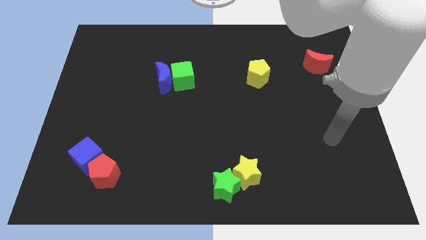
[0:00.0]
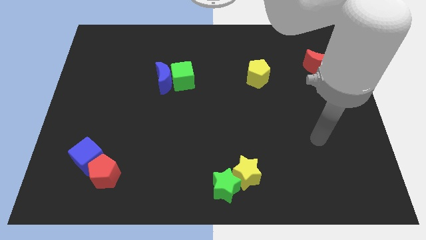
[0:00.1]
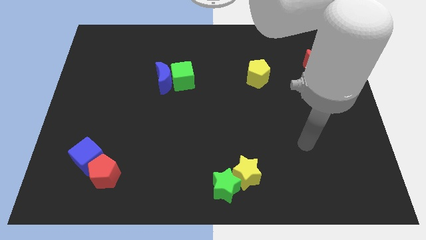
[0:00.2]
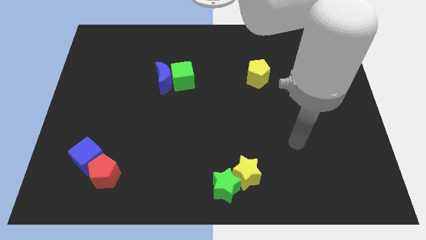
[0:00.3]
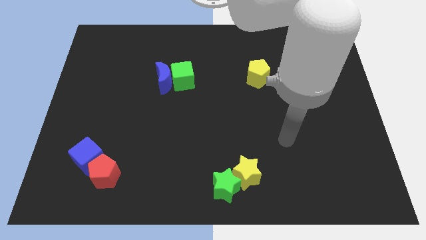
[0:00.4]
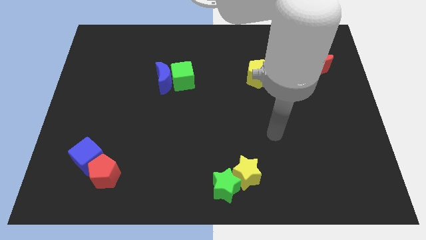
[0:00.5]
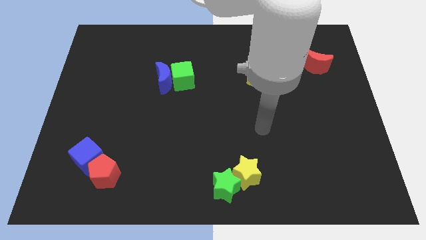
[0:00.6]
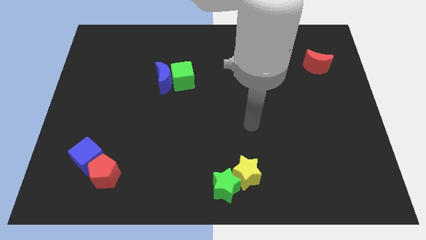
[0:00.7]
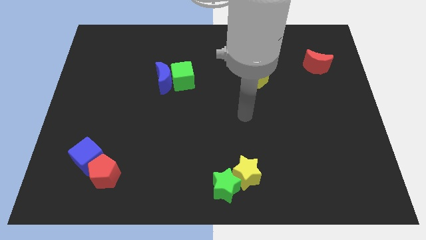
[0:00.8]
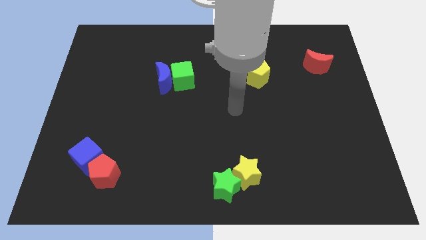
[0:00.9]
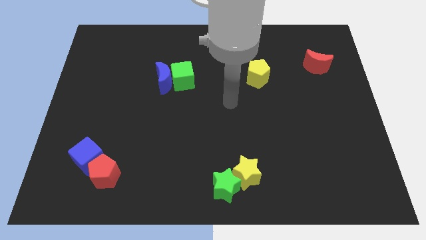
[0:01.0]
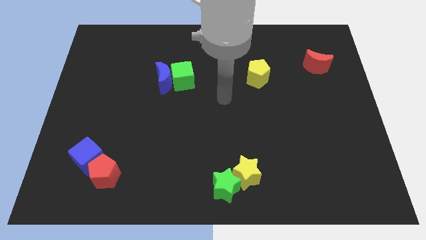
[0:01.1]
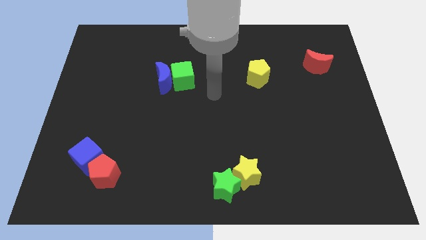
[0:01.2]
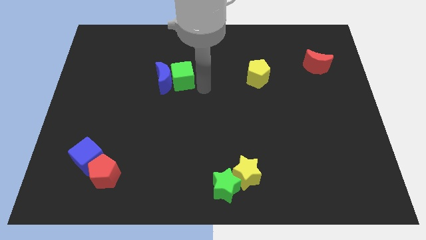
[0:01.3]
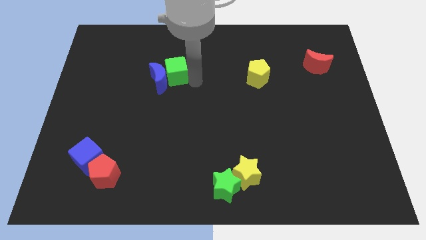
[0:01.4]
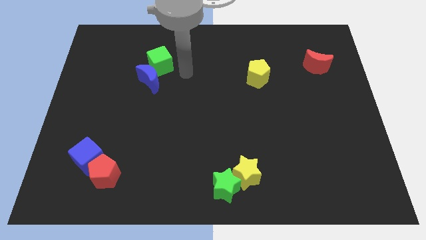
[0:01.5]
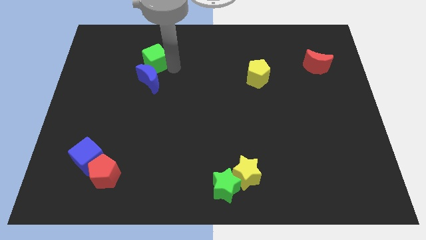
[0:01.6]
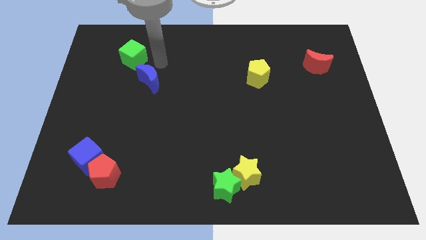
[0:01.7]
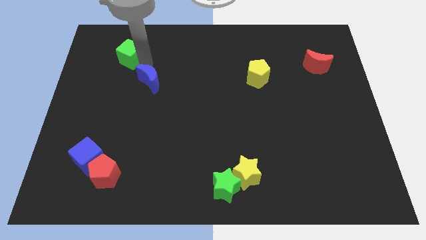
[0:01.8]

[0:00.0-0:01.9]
separate the blue moon from the green cube

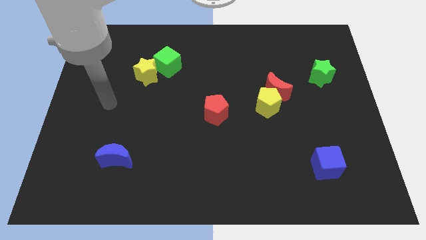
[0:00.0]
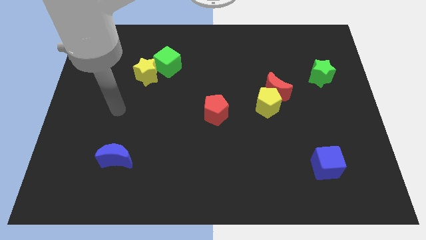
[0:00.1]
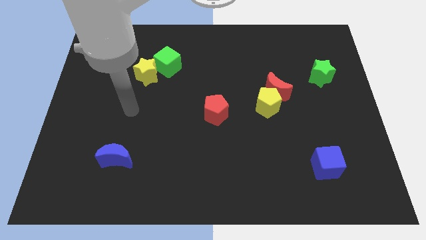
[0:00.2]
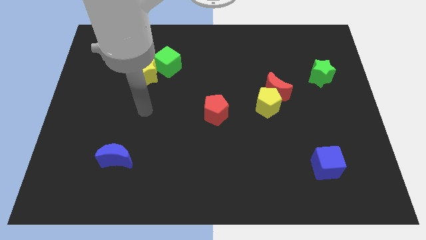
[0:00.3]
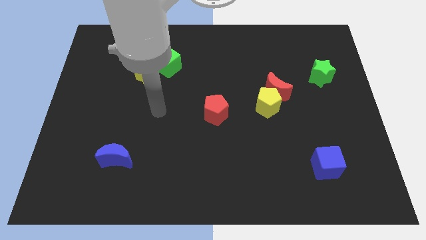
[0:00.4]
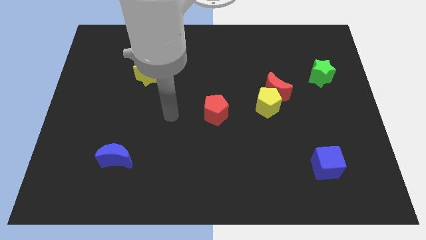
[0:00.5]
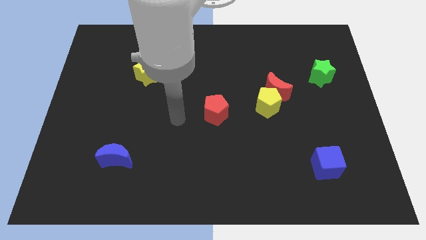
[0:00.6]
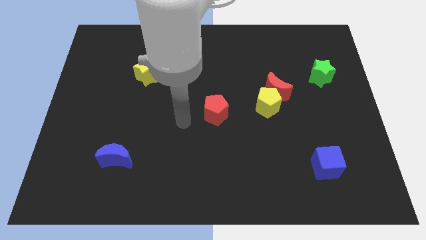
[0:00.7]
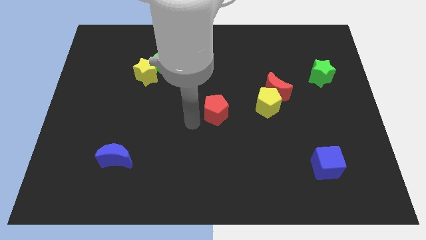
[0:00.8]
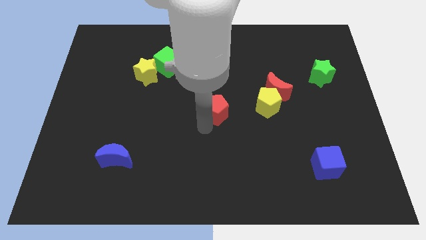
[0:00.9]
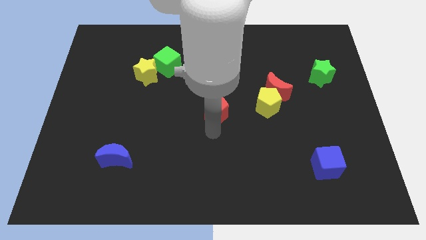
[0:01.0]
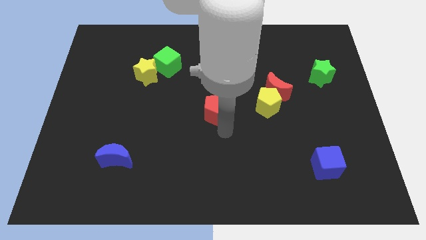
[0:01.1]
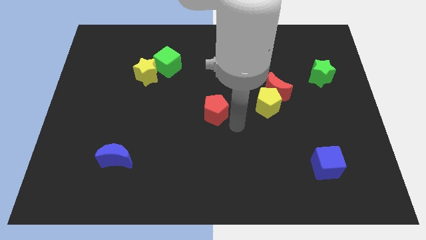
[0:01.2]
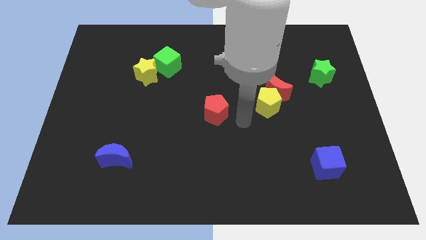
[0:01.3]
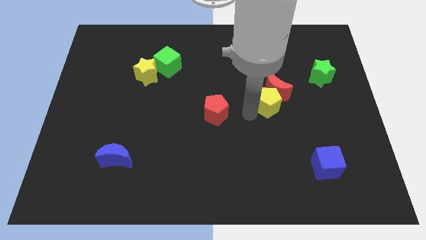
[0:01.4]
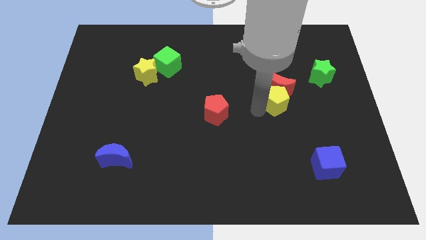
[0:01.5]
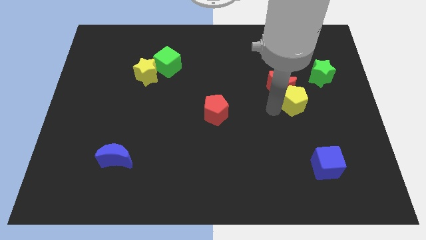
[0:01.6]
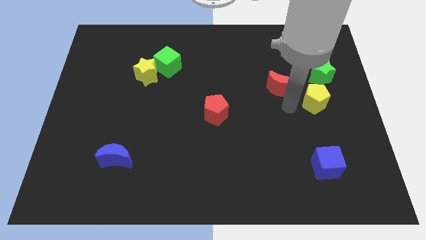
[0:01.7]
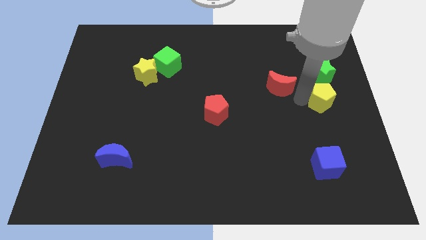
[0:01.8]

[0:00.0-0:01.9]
separate the red moon from the yellow pentagon

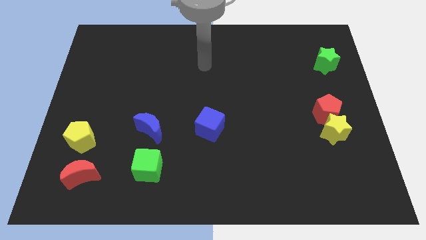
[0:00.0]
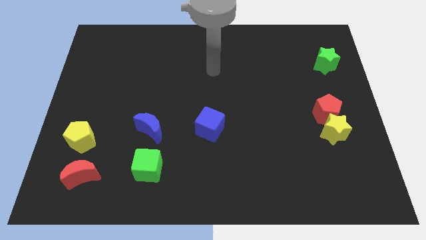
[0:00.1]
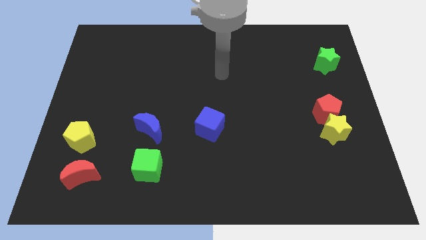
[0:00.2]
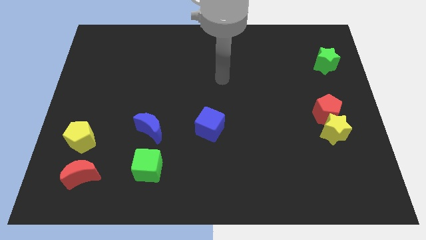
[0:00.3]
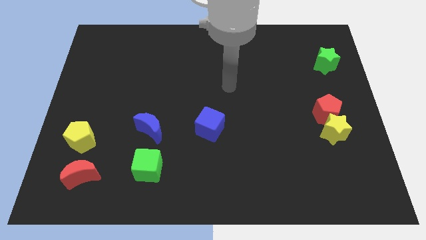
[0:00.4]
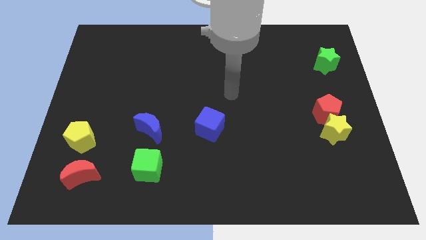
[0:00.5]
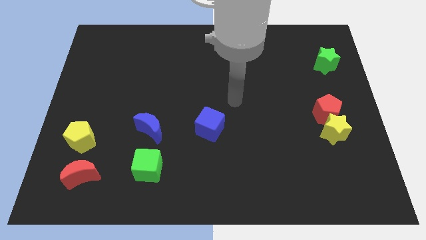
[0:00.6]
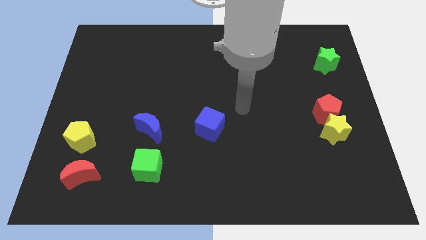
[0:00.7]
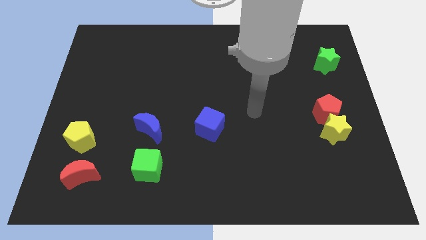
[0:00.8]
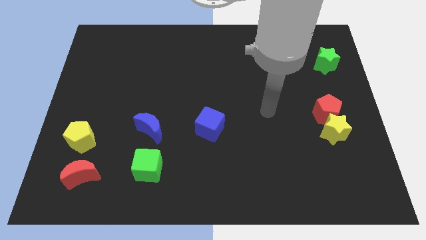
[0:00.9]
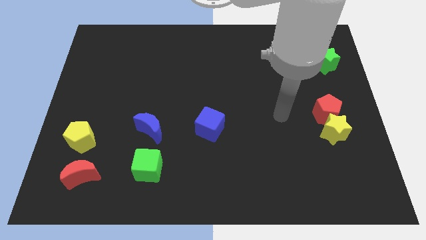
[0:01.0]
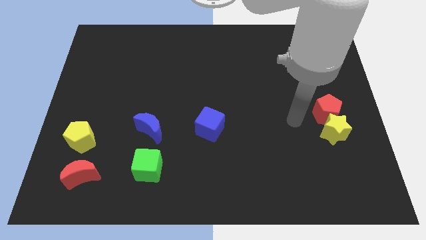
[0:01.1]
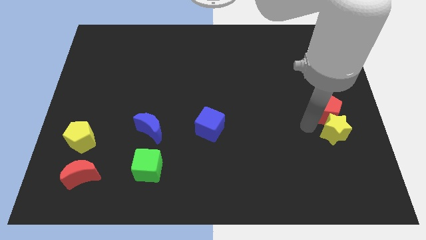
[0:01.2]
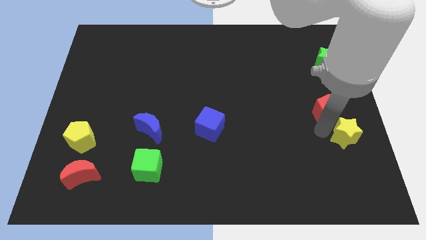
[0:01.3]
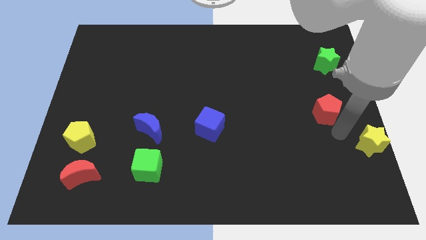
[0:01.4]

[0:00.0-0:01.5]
pull the red pentagon apart from the yellow star

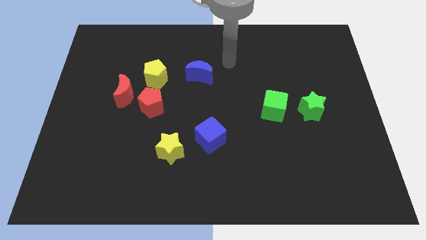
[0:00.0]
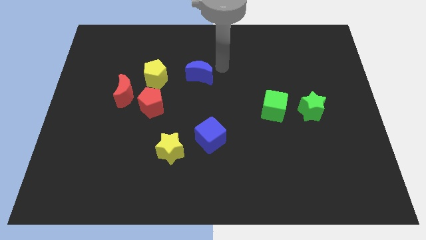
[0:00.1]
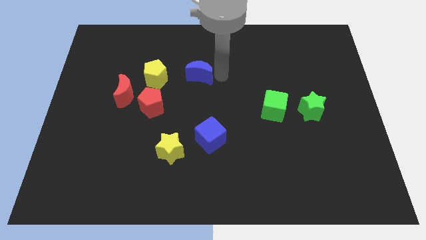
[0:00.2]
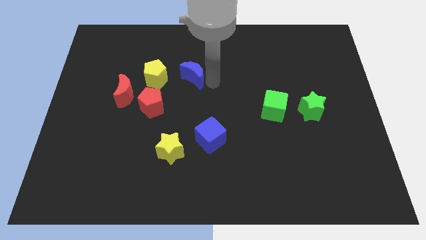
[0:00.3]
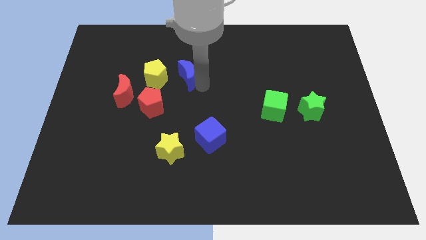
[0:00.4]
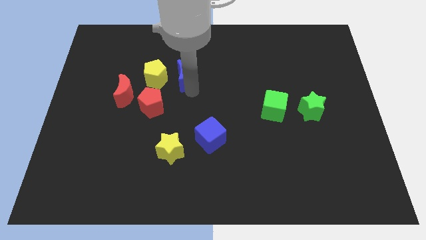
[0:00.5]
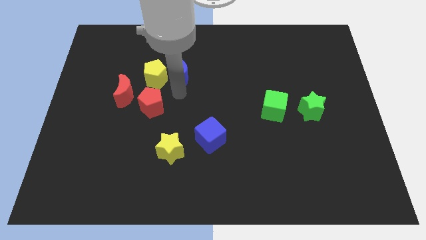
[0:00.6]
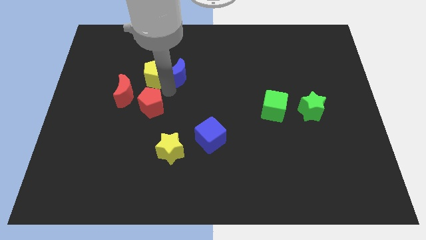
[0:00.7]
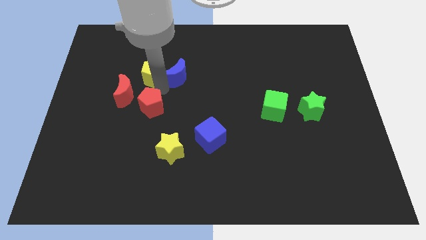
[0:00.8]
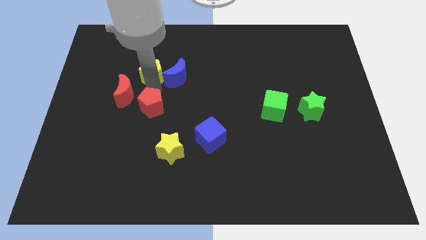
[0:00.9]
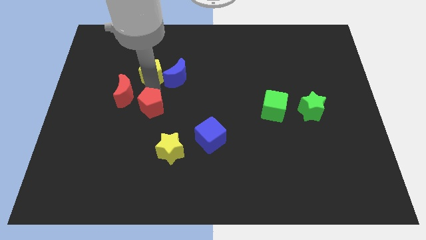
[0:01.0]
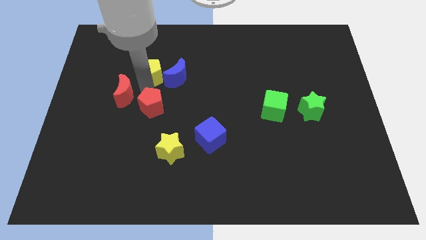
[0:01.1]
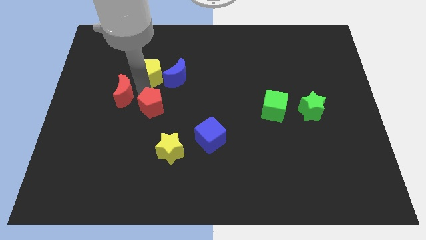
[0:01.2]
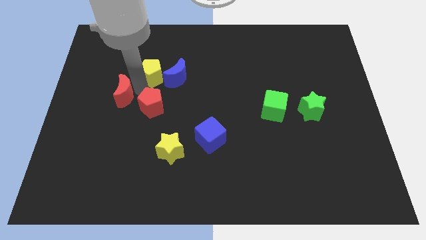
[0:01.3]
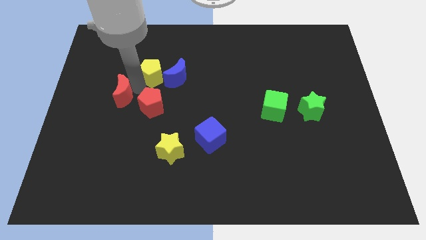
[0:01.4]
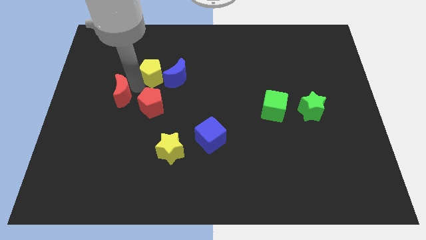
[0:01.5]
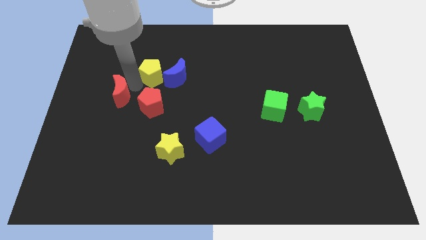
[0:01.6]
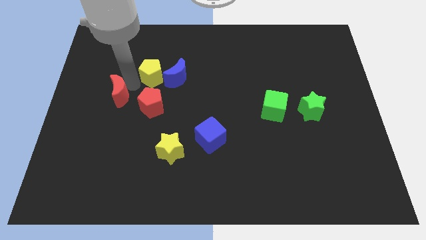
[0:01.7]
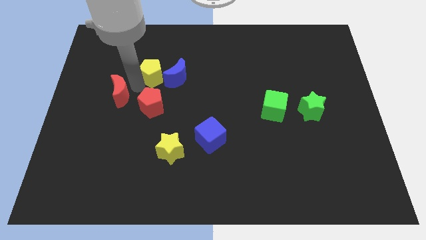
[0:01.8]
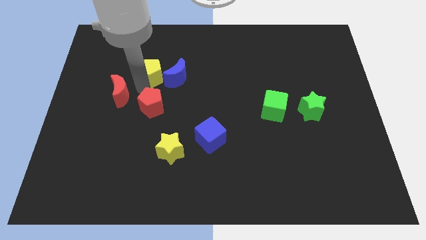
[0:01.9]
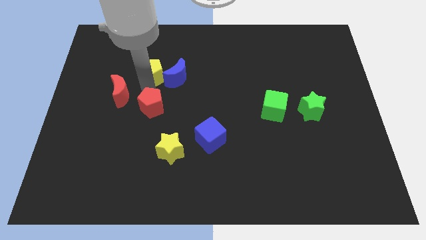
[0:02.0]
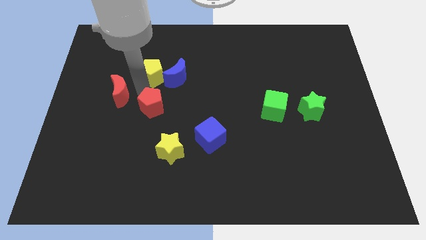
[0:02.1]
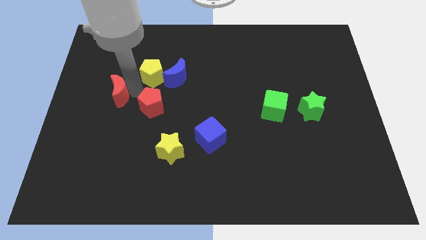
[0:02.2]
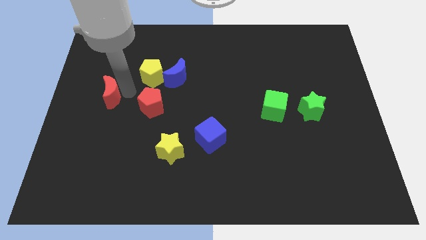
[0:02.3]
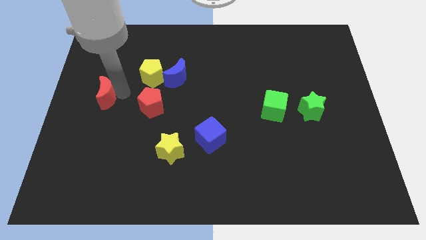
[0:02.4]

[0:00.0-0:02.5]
move the red moon away from the red pentagon and yellow pentagon

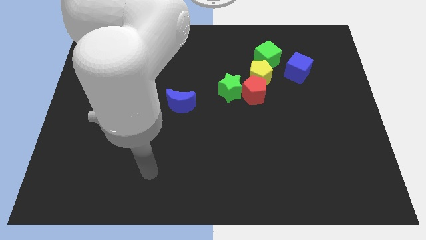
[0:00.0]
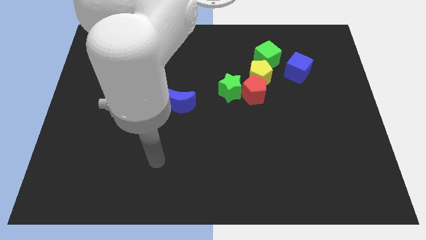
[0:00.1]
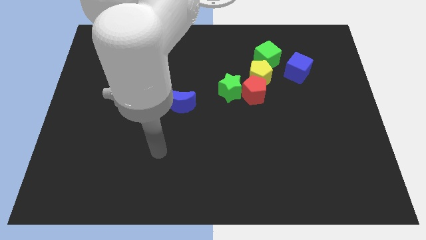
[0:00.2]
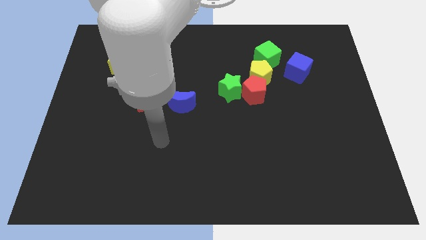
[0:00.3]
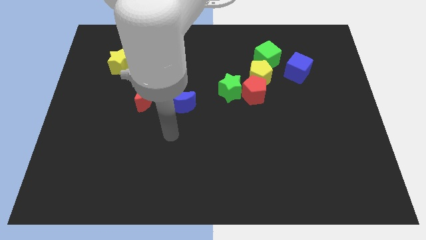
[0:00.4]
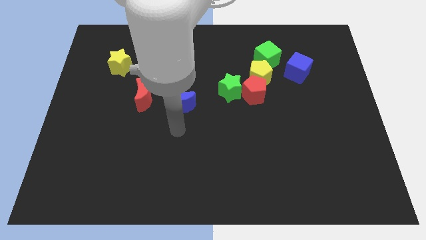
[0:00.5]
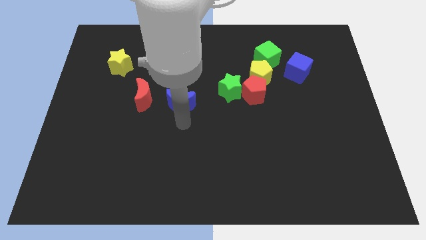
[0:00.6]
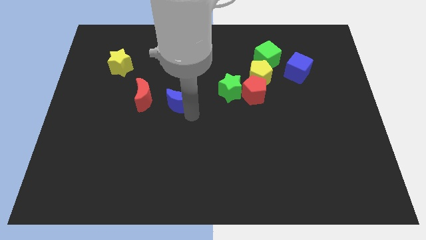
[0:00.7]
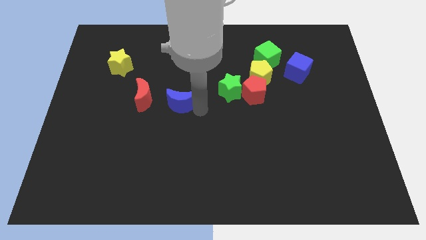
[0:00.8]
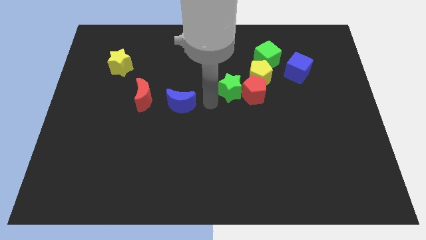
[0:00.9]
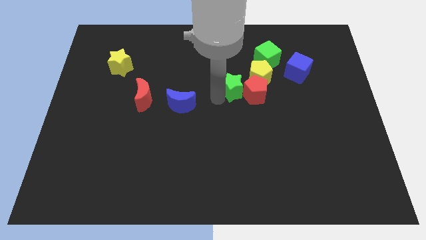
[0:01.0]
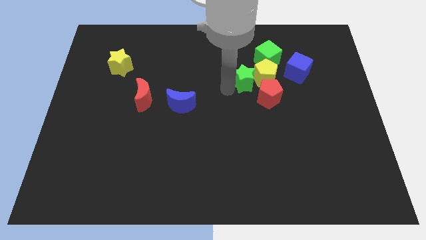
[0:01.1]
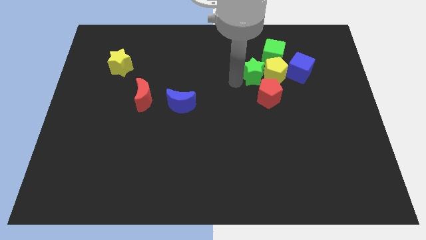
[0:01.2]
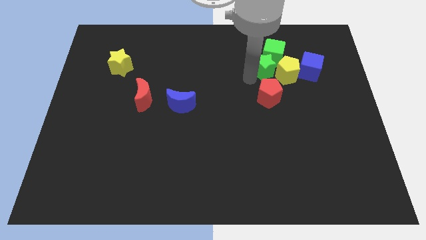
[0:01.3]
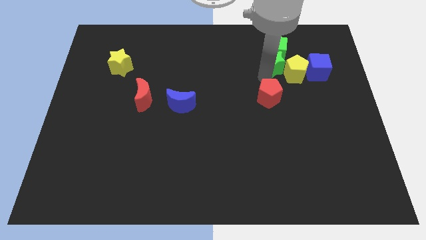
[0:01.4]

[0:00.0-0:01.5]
move the red pentagon away from the yellow pentagon and green star
